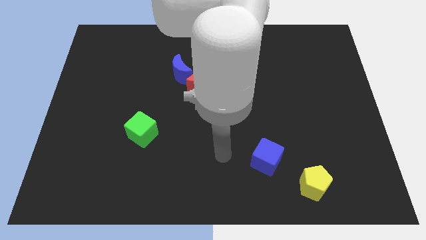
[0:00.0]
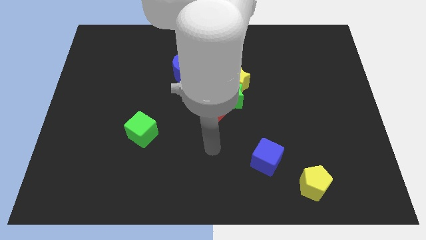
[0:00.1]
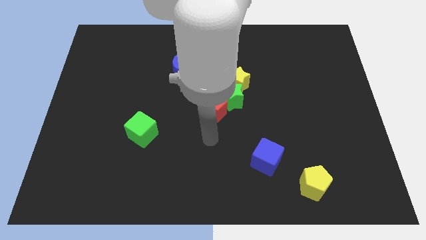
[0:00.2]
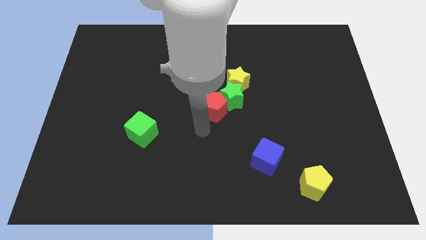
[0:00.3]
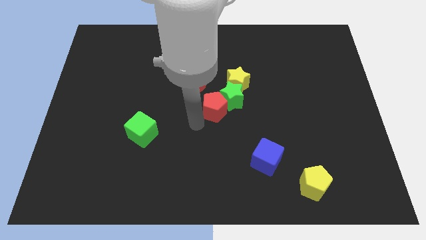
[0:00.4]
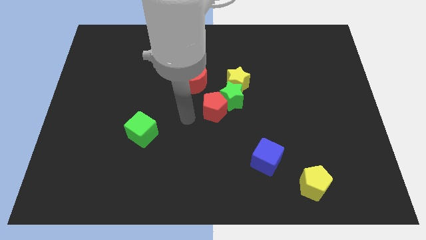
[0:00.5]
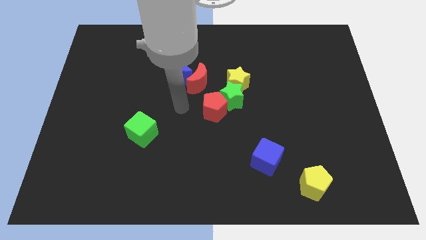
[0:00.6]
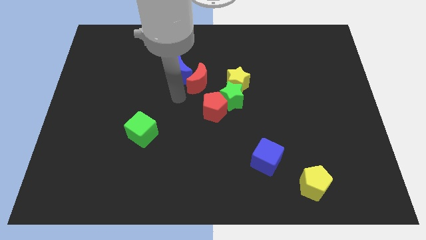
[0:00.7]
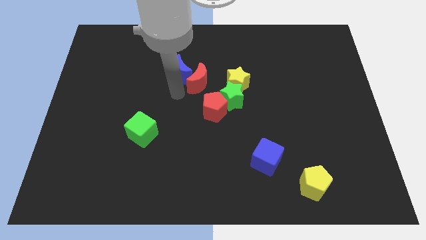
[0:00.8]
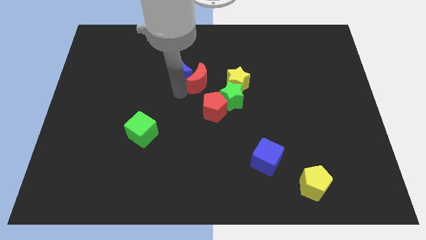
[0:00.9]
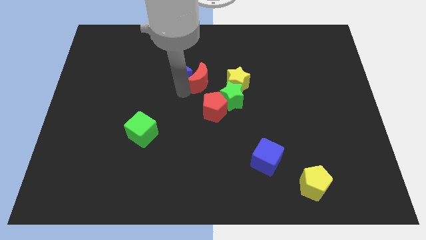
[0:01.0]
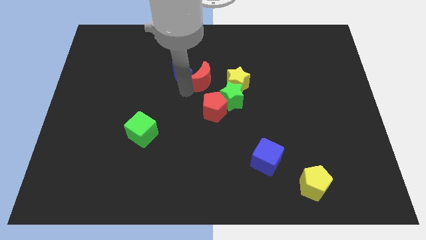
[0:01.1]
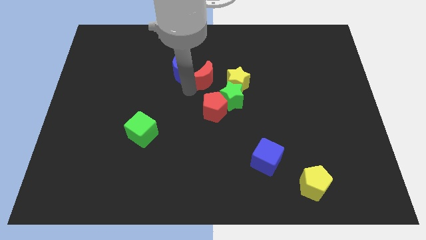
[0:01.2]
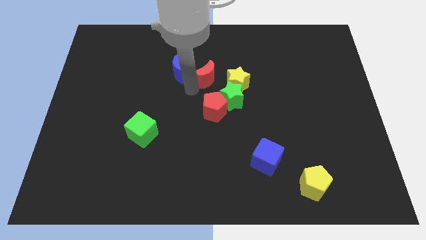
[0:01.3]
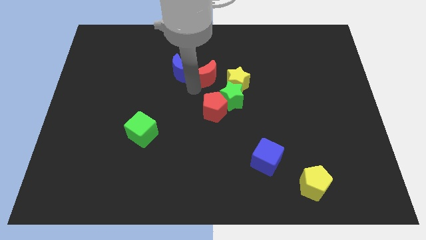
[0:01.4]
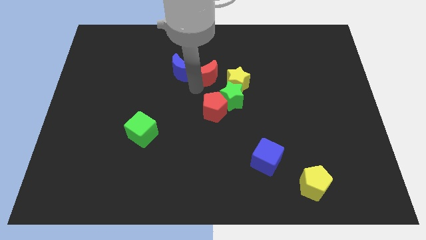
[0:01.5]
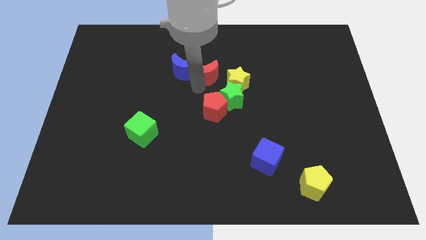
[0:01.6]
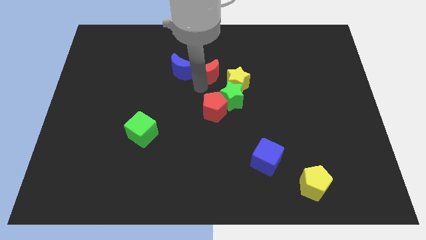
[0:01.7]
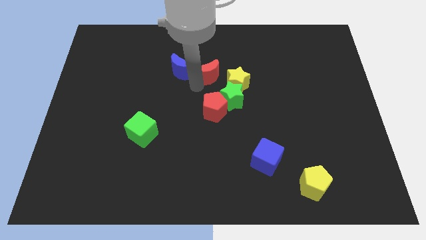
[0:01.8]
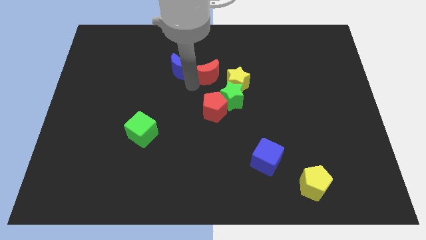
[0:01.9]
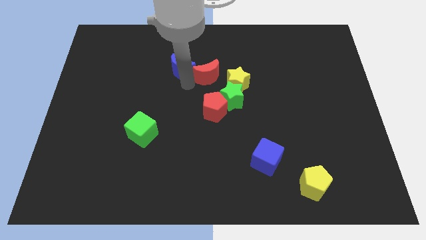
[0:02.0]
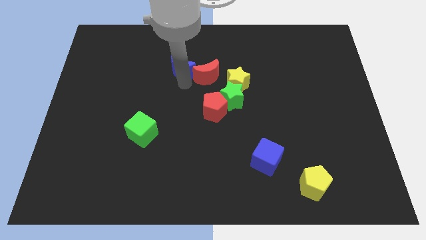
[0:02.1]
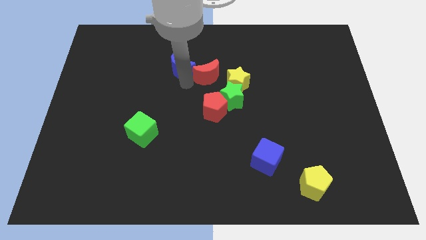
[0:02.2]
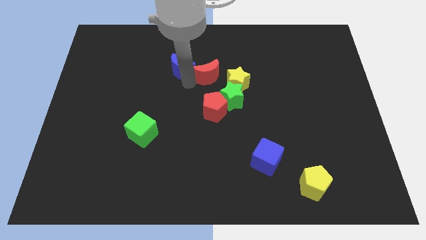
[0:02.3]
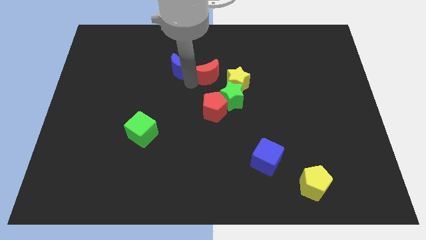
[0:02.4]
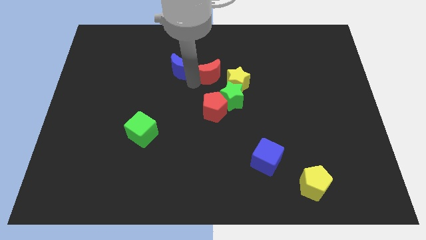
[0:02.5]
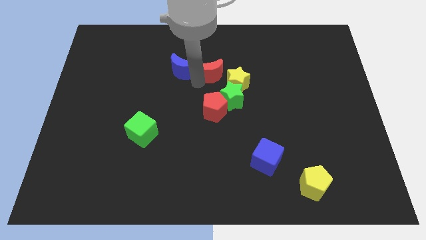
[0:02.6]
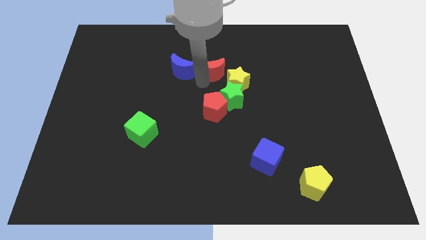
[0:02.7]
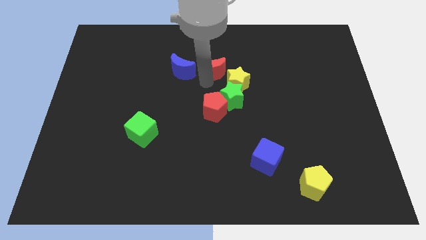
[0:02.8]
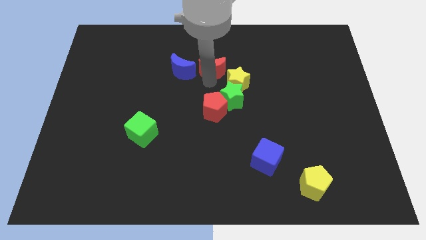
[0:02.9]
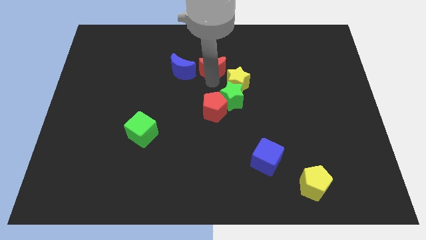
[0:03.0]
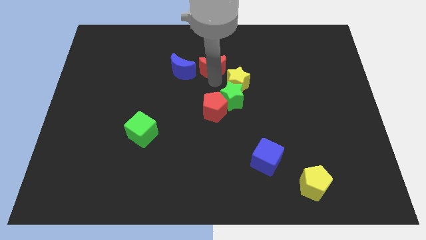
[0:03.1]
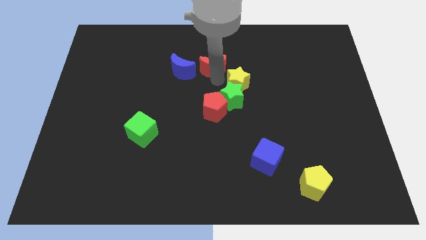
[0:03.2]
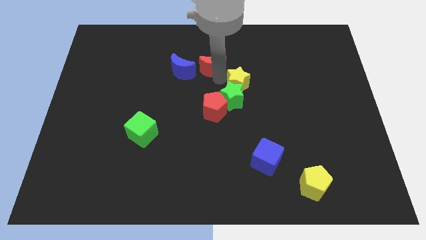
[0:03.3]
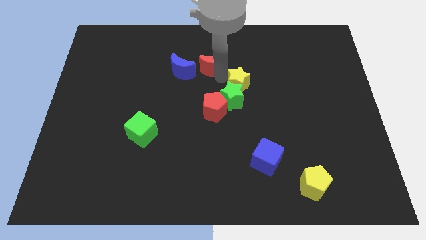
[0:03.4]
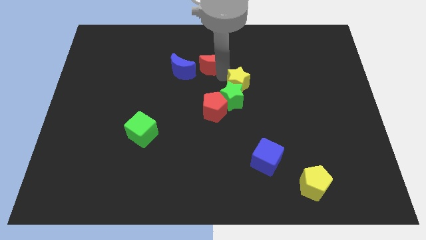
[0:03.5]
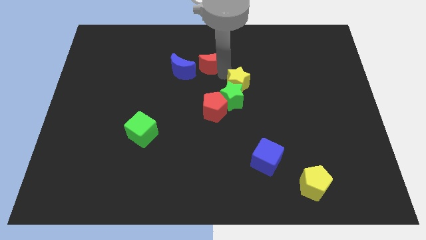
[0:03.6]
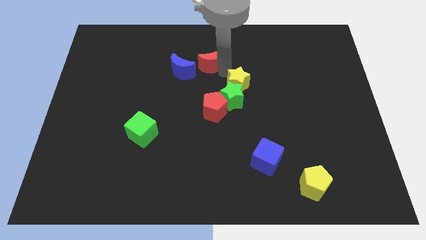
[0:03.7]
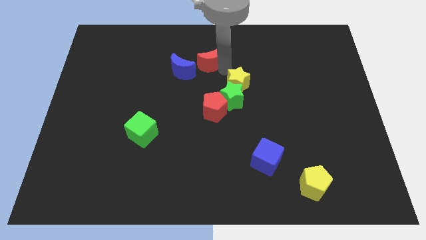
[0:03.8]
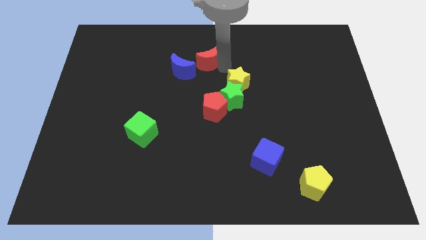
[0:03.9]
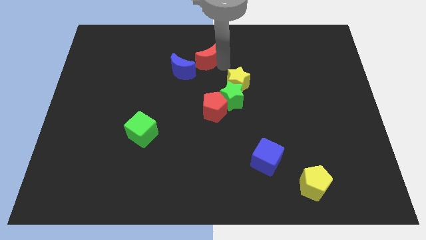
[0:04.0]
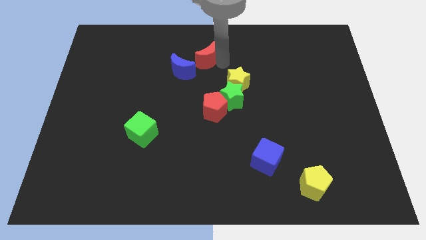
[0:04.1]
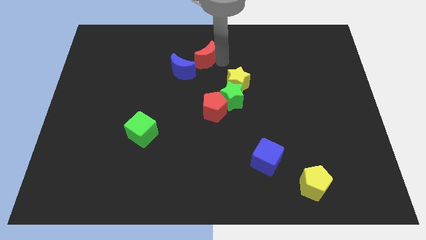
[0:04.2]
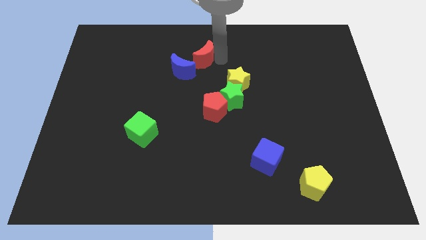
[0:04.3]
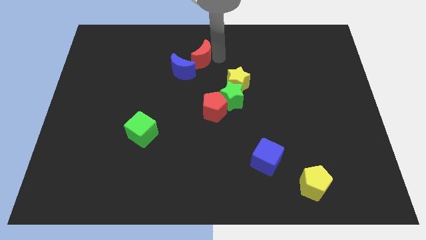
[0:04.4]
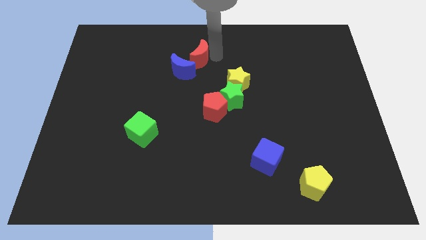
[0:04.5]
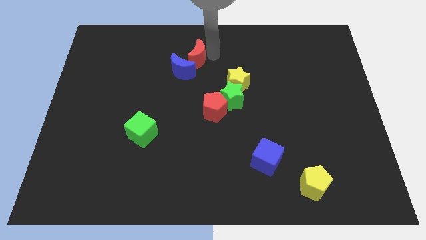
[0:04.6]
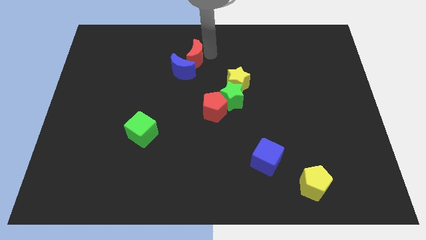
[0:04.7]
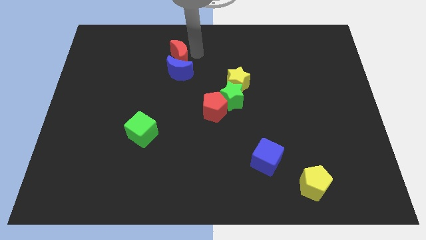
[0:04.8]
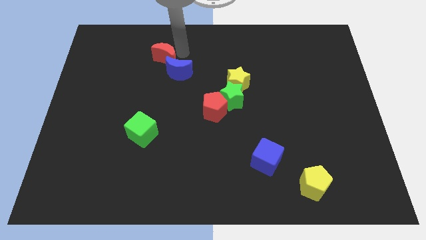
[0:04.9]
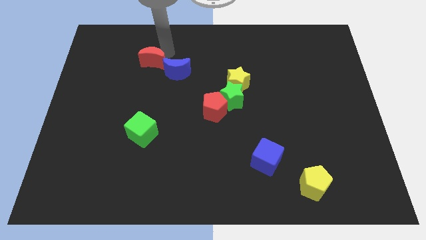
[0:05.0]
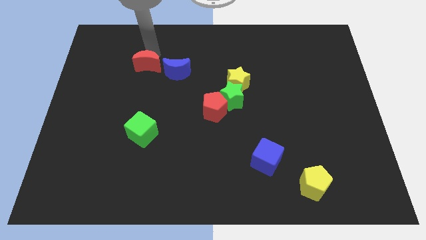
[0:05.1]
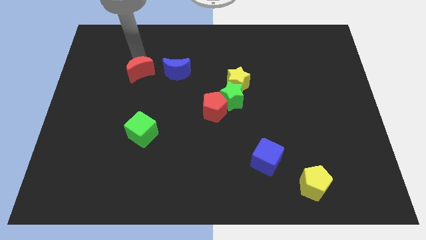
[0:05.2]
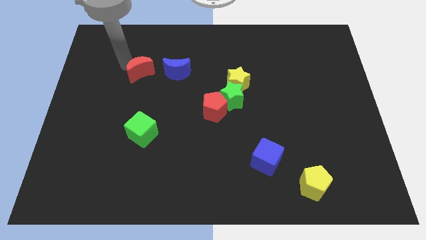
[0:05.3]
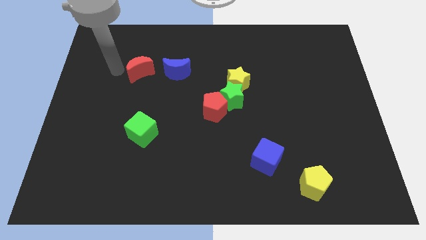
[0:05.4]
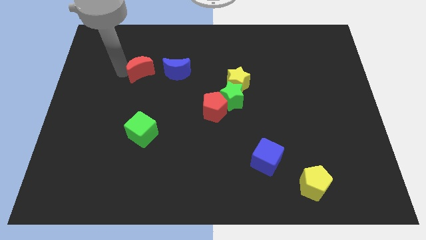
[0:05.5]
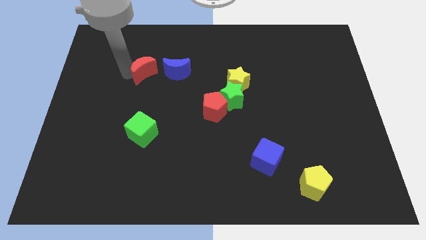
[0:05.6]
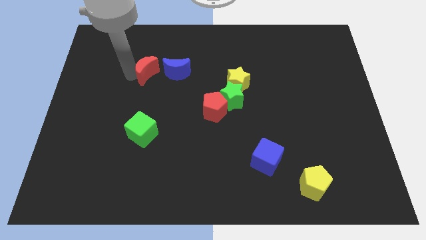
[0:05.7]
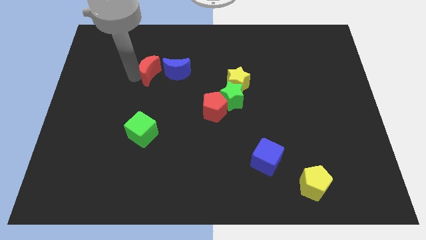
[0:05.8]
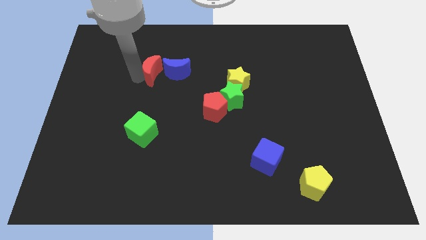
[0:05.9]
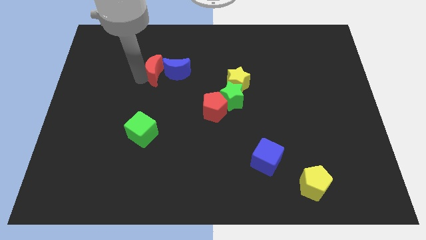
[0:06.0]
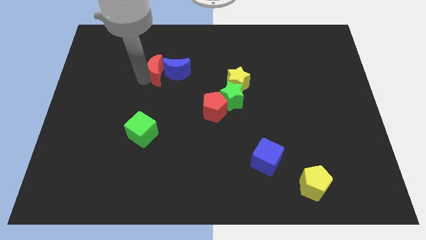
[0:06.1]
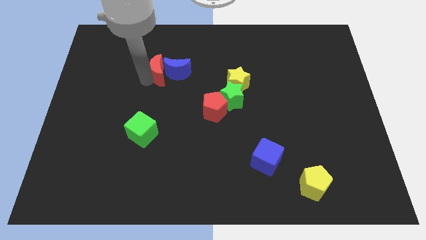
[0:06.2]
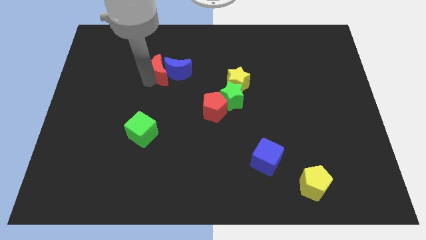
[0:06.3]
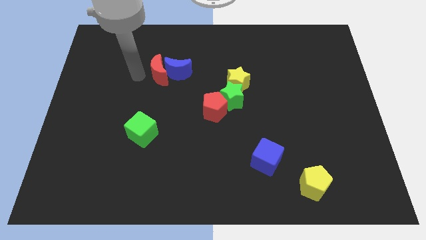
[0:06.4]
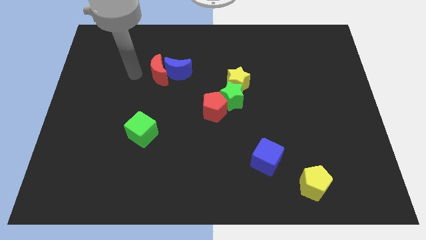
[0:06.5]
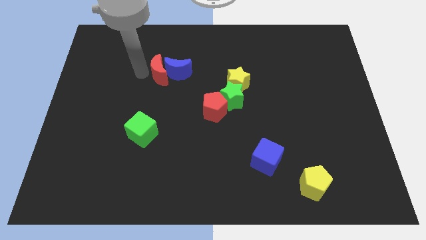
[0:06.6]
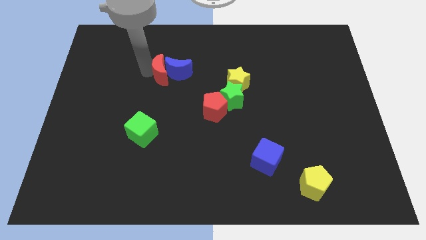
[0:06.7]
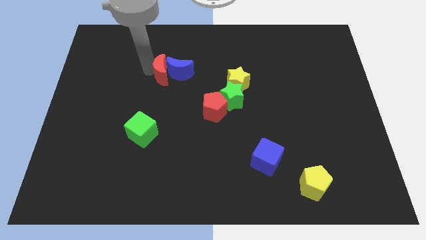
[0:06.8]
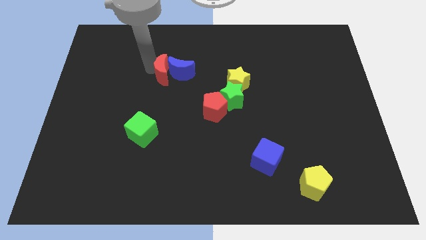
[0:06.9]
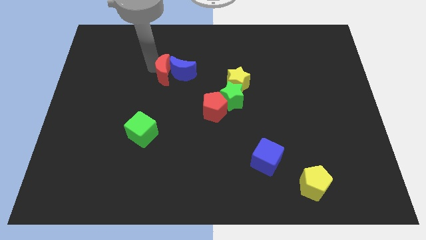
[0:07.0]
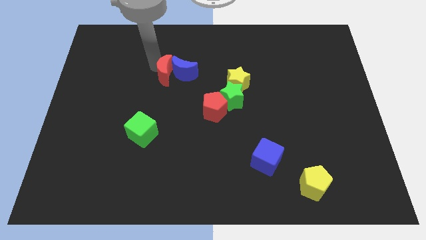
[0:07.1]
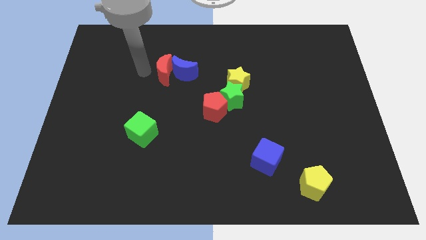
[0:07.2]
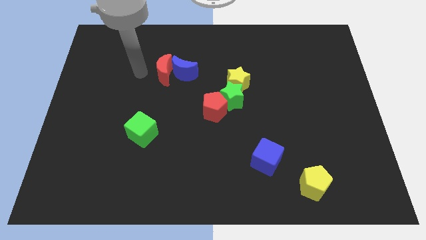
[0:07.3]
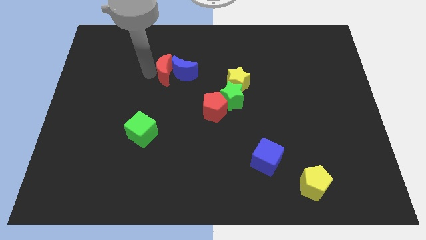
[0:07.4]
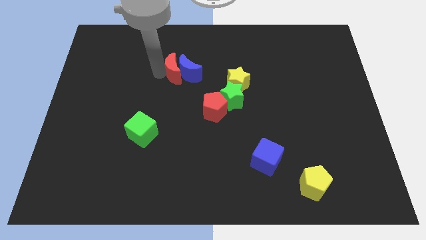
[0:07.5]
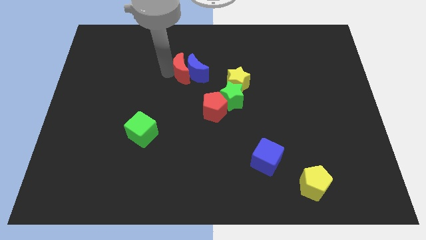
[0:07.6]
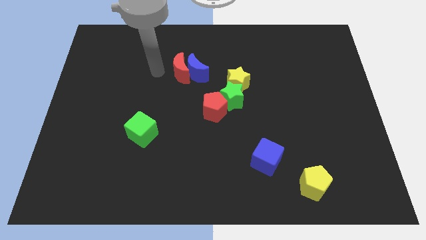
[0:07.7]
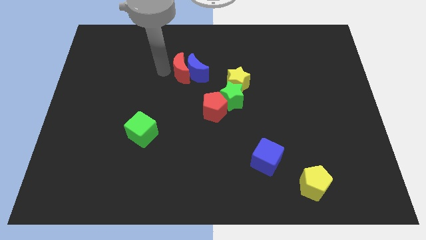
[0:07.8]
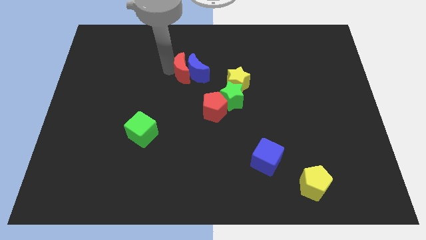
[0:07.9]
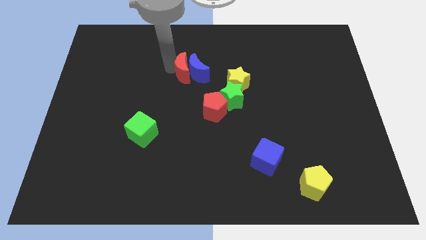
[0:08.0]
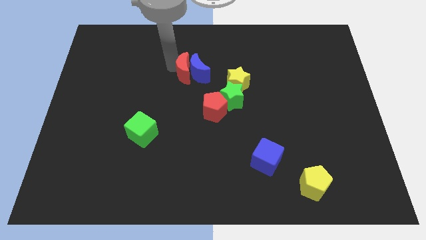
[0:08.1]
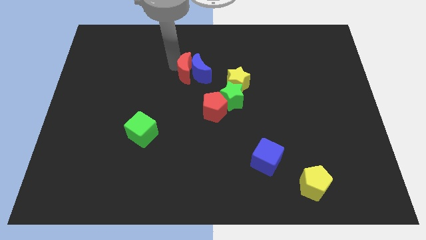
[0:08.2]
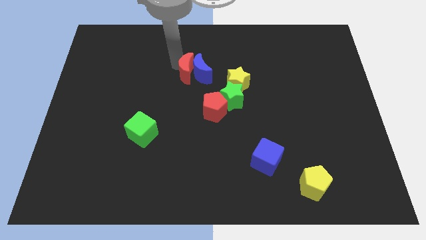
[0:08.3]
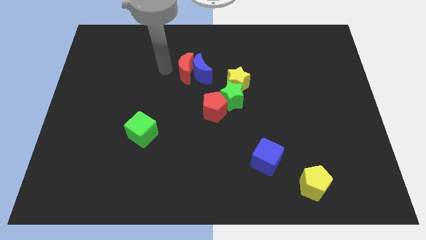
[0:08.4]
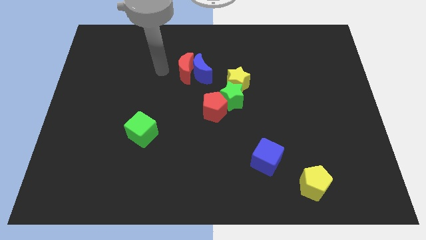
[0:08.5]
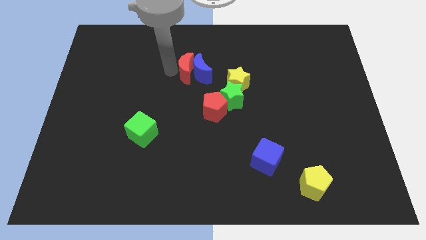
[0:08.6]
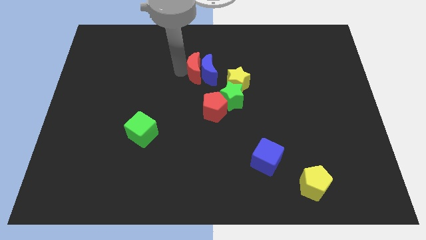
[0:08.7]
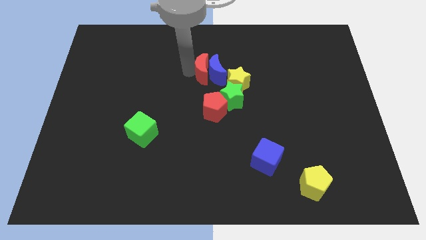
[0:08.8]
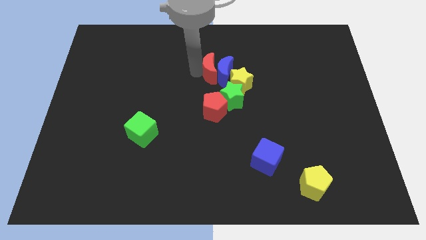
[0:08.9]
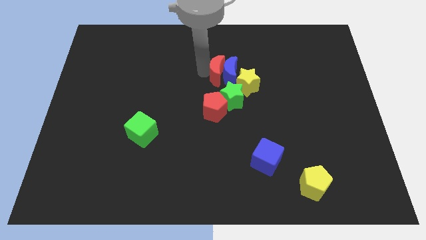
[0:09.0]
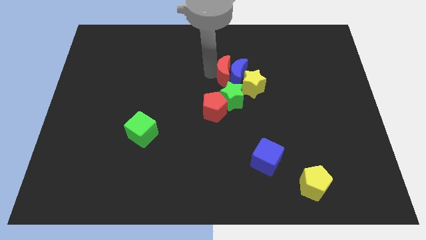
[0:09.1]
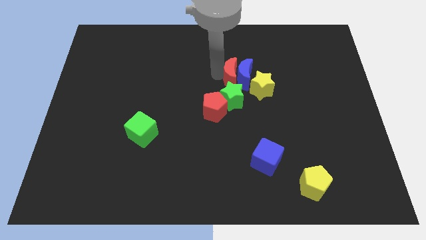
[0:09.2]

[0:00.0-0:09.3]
slide the red moon right somewhat
